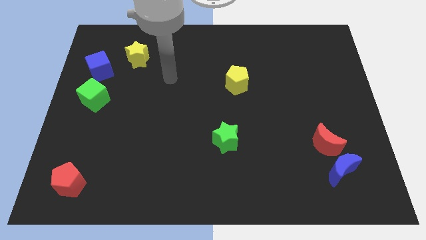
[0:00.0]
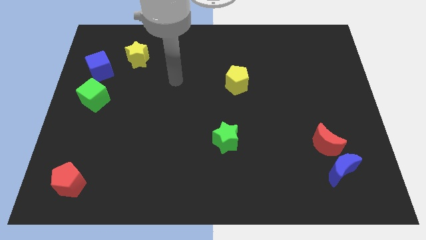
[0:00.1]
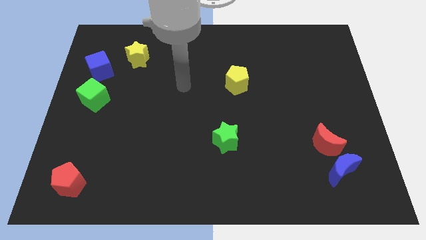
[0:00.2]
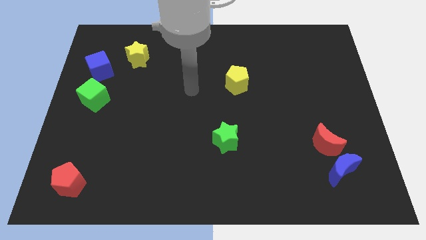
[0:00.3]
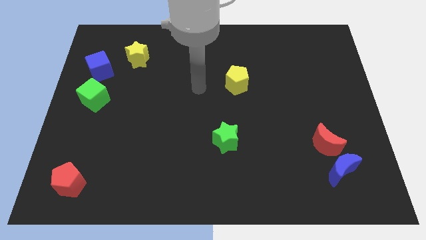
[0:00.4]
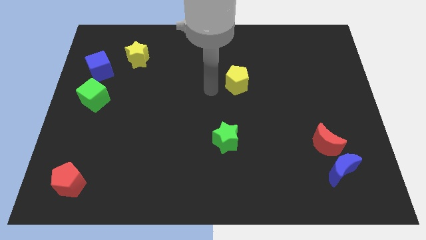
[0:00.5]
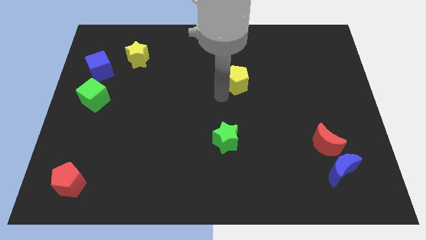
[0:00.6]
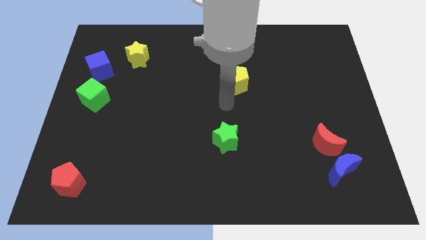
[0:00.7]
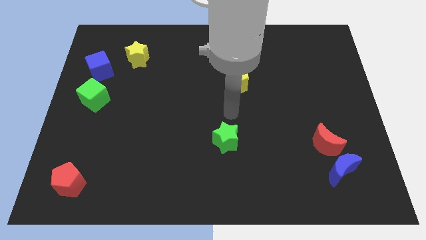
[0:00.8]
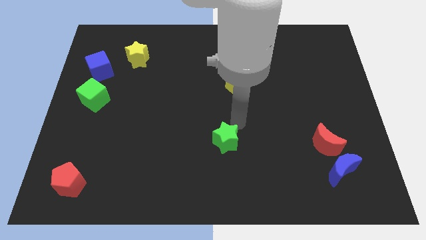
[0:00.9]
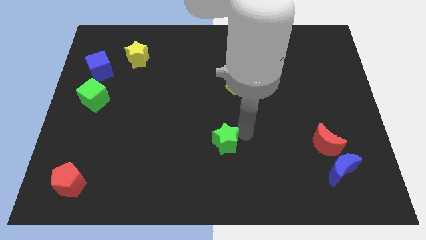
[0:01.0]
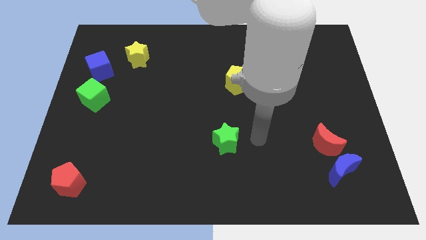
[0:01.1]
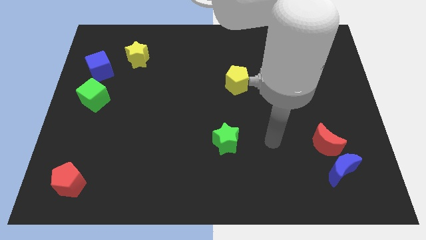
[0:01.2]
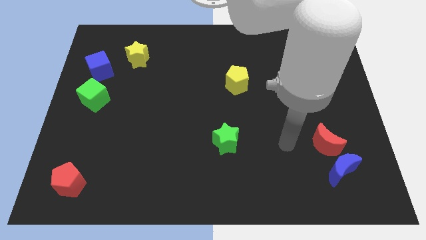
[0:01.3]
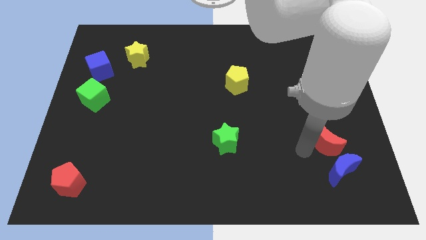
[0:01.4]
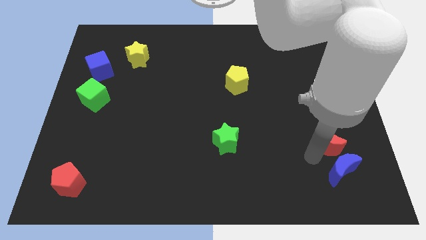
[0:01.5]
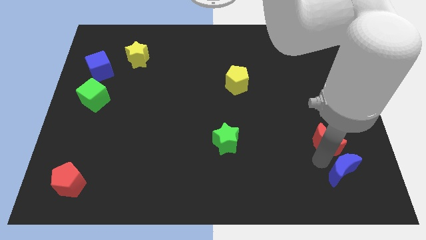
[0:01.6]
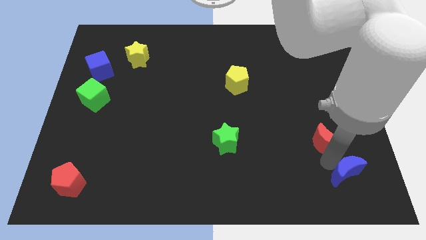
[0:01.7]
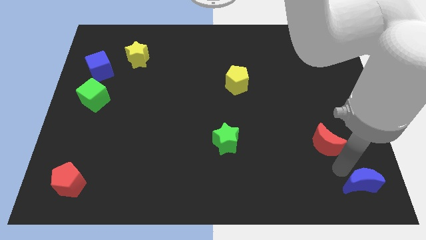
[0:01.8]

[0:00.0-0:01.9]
move the red moon away from the blue moon

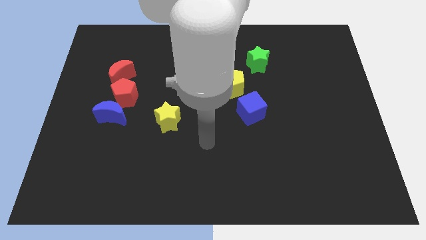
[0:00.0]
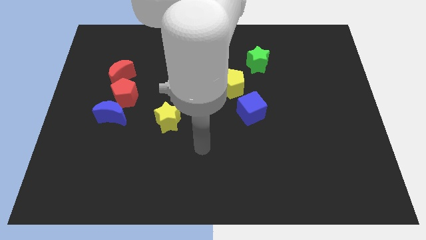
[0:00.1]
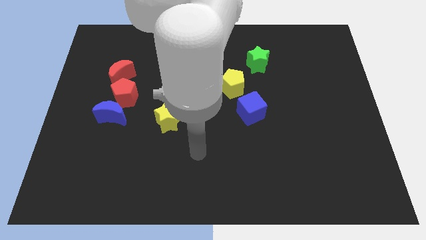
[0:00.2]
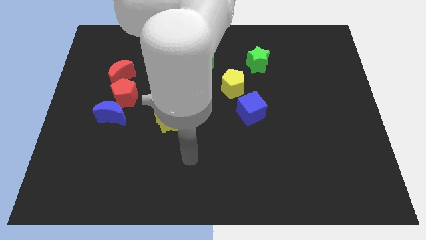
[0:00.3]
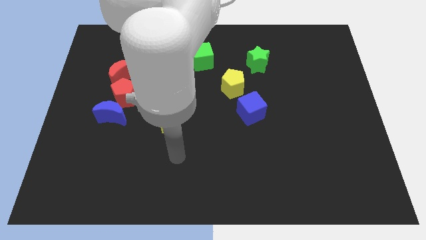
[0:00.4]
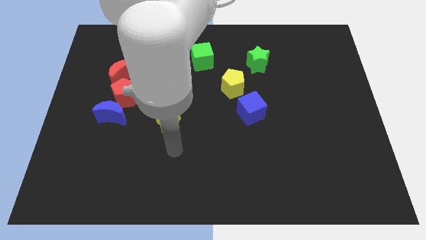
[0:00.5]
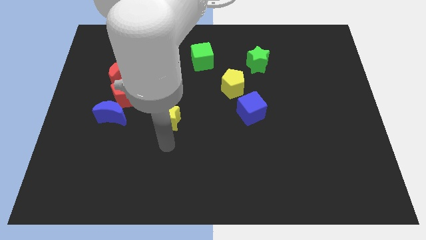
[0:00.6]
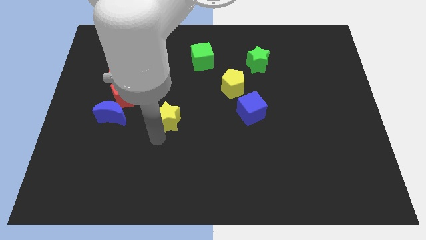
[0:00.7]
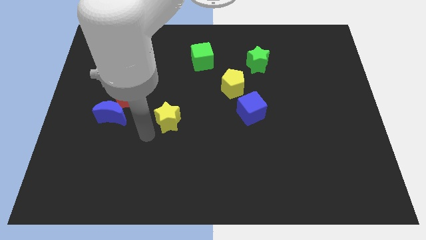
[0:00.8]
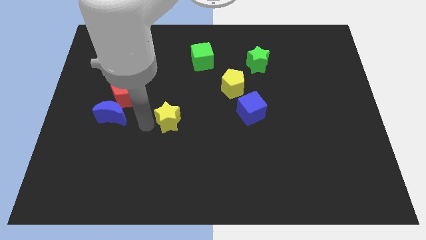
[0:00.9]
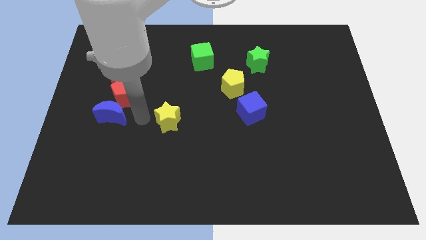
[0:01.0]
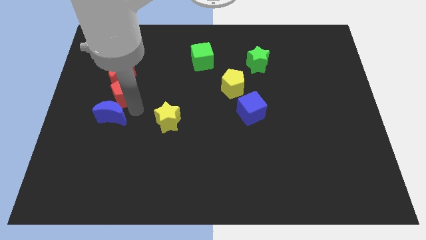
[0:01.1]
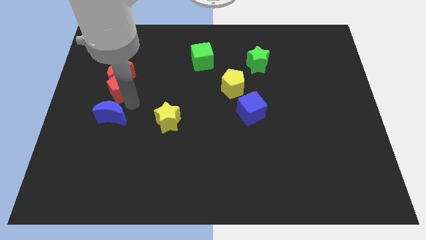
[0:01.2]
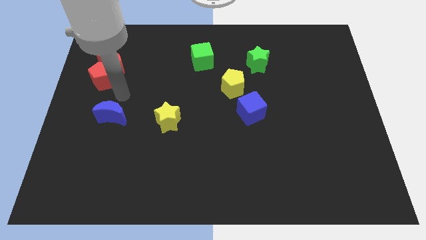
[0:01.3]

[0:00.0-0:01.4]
separate the blue moon from the red pentagon

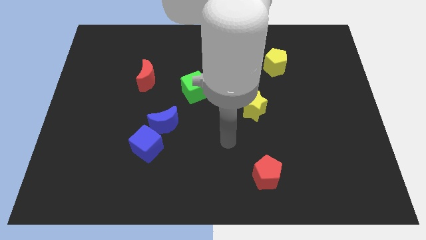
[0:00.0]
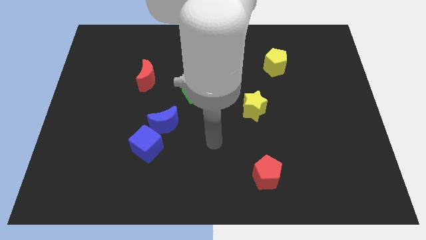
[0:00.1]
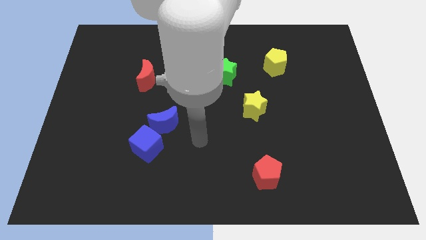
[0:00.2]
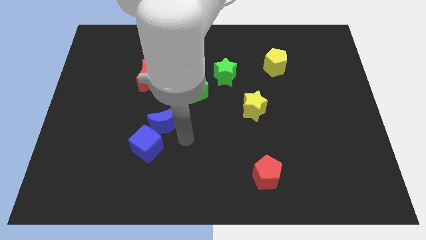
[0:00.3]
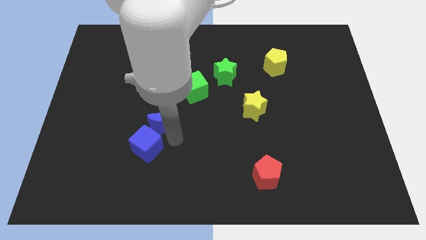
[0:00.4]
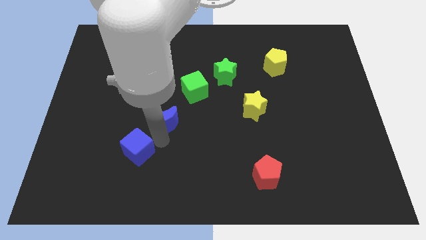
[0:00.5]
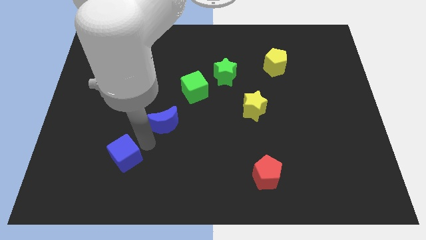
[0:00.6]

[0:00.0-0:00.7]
pull the blue moon apart from the blue cube

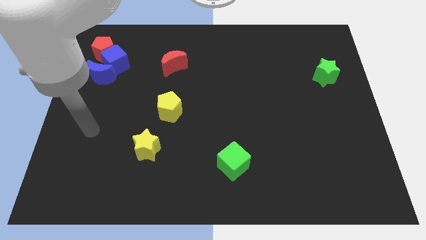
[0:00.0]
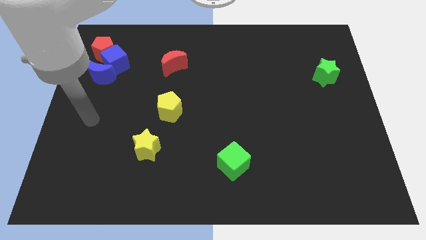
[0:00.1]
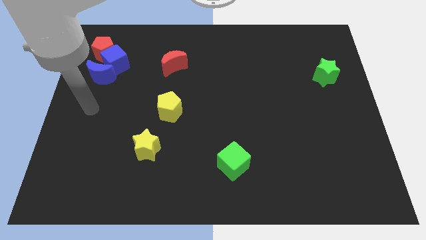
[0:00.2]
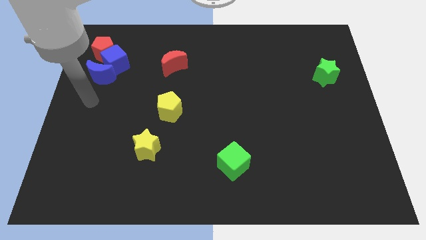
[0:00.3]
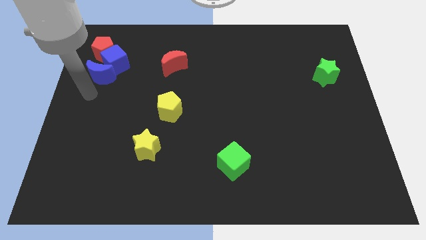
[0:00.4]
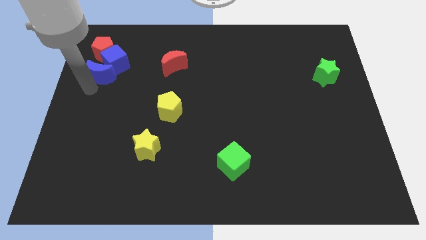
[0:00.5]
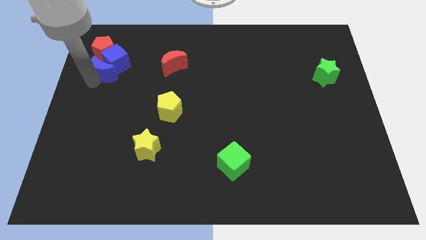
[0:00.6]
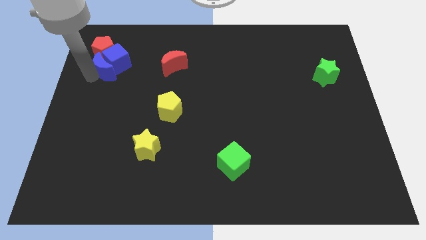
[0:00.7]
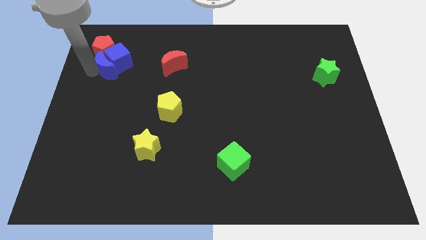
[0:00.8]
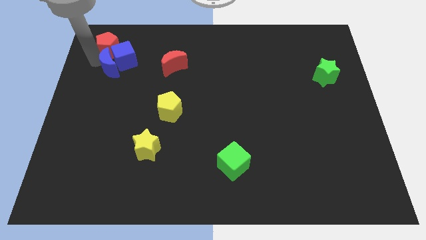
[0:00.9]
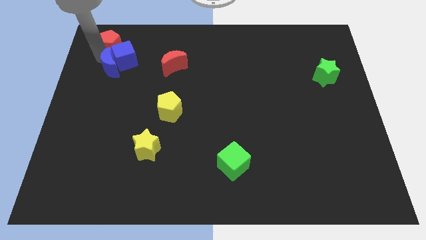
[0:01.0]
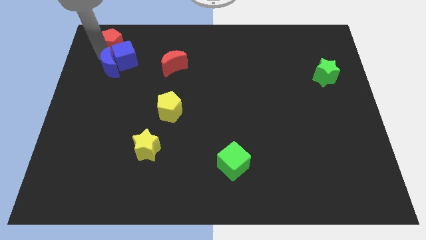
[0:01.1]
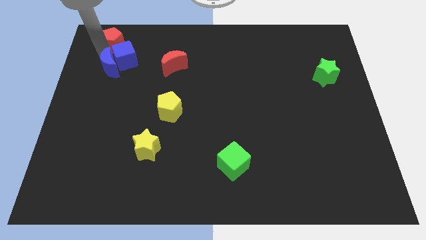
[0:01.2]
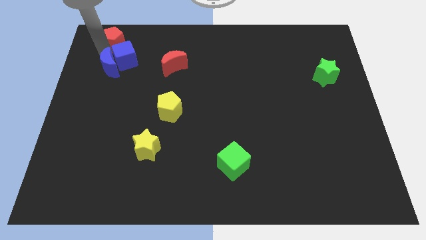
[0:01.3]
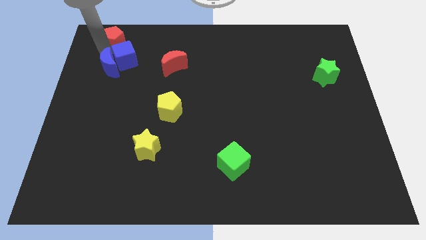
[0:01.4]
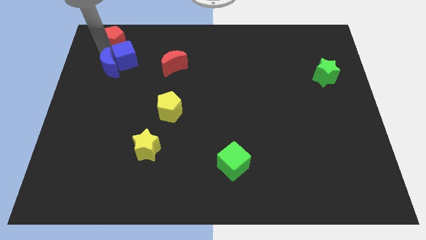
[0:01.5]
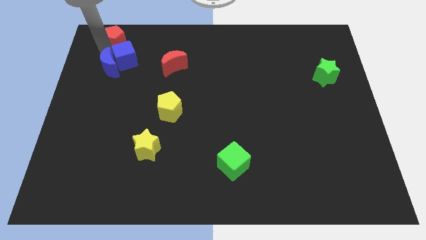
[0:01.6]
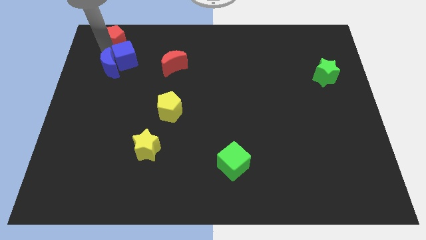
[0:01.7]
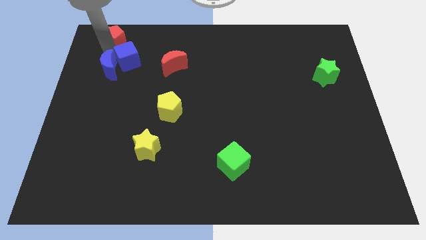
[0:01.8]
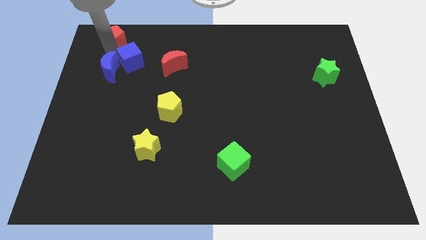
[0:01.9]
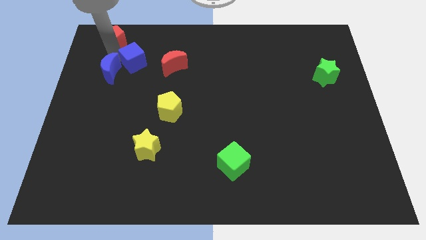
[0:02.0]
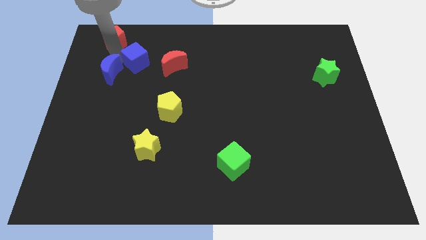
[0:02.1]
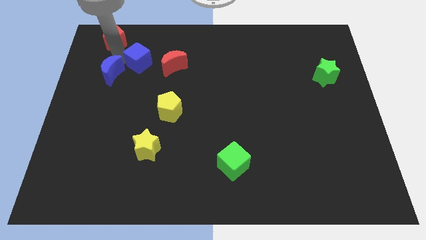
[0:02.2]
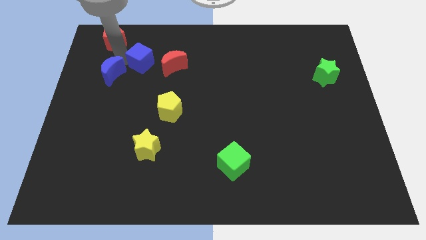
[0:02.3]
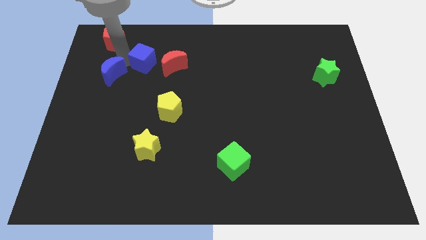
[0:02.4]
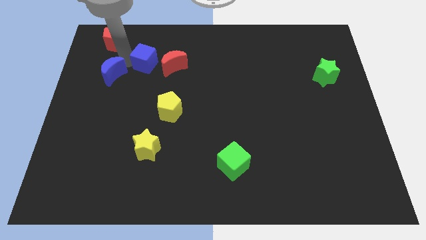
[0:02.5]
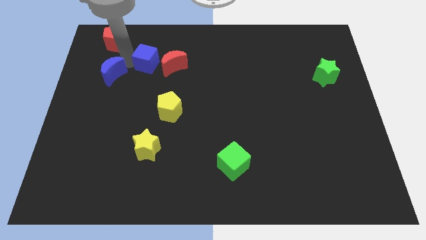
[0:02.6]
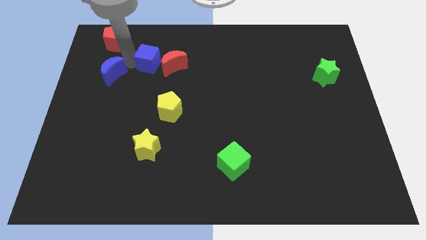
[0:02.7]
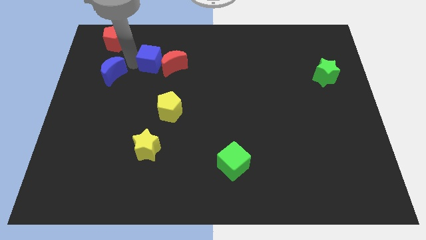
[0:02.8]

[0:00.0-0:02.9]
move the blue cube away from the red pentagon and blue moon

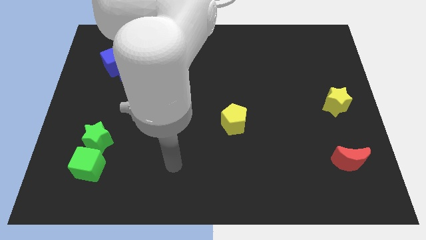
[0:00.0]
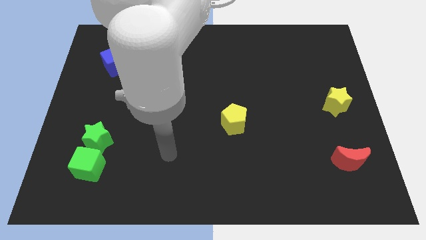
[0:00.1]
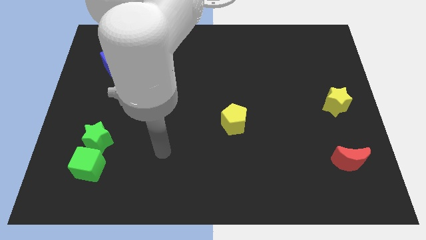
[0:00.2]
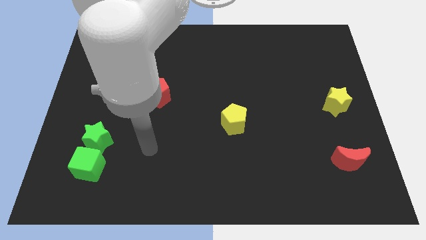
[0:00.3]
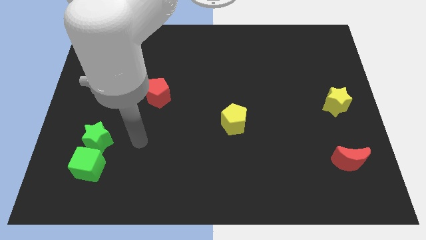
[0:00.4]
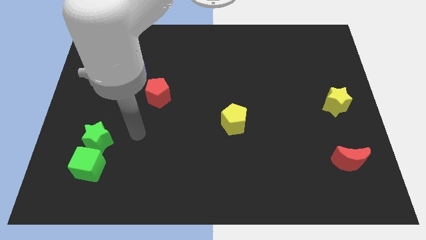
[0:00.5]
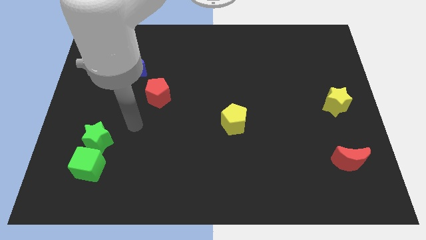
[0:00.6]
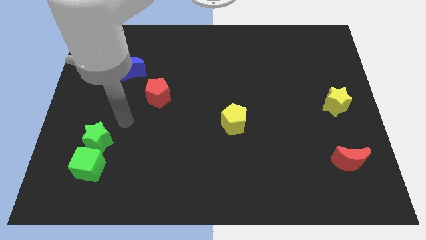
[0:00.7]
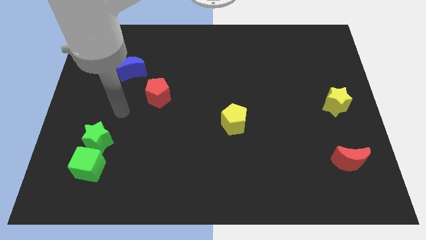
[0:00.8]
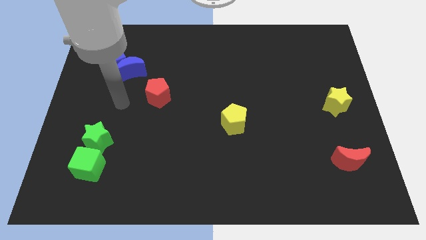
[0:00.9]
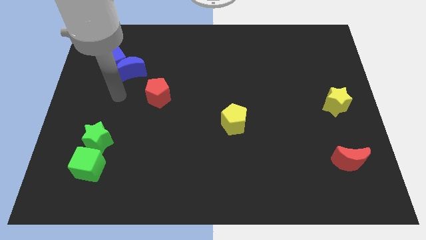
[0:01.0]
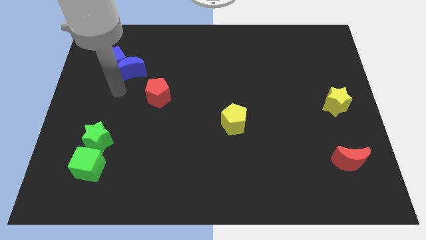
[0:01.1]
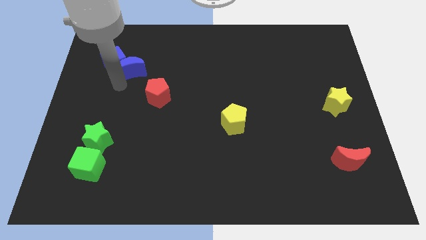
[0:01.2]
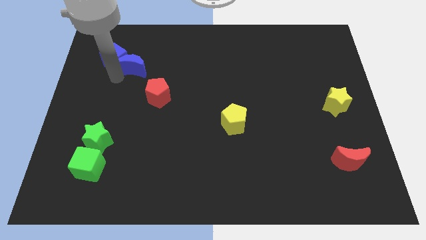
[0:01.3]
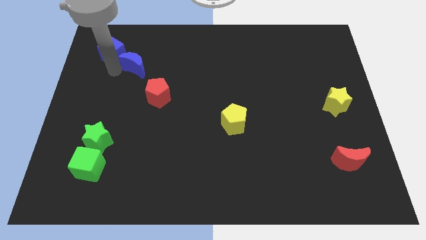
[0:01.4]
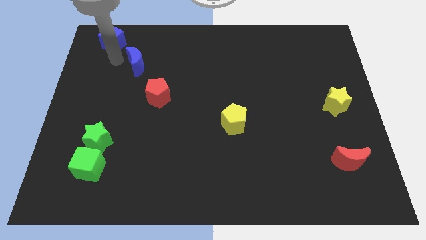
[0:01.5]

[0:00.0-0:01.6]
separate the blue moon from the blue cube

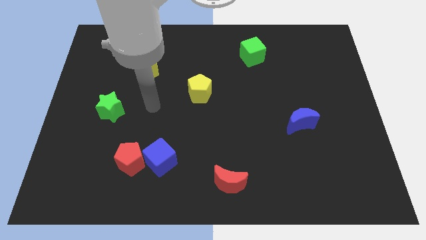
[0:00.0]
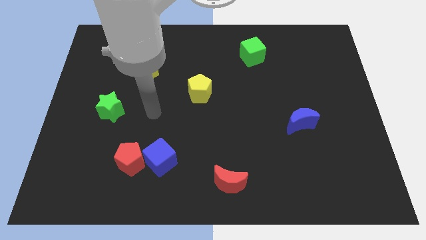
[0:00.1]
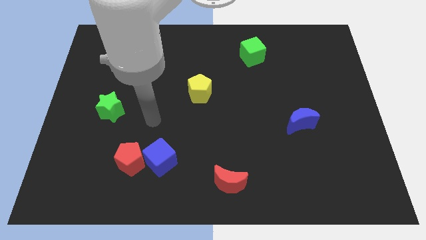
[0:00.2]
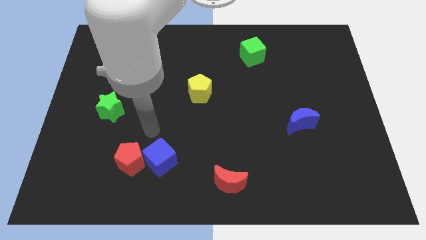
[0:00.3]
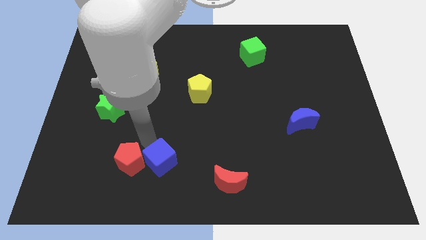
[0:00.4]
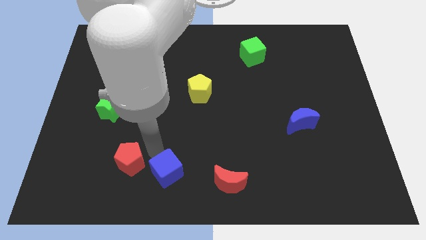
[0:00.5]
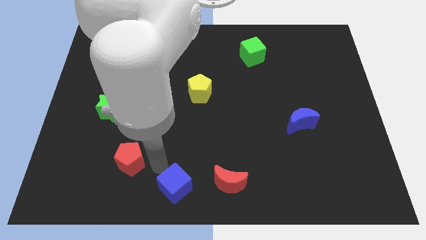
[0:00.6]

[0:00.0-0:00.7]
move the red pentagon away from the blue cube
